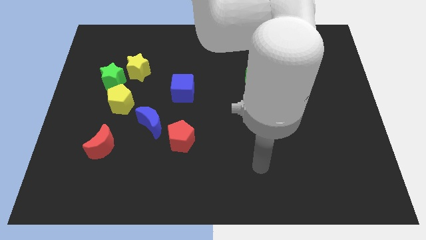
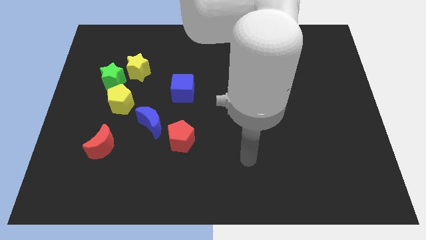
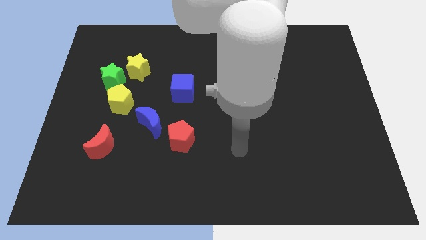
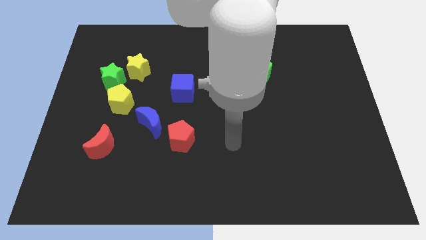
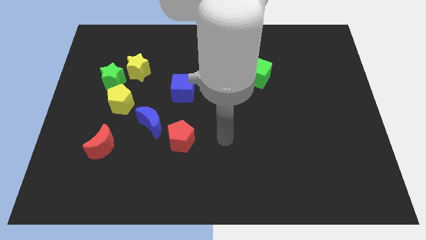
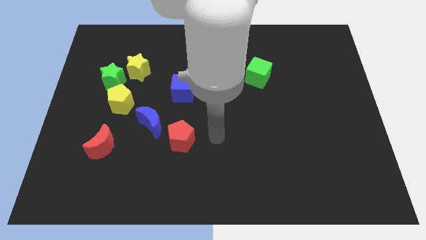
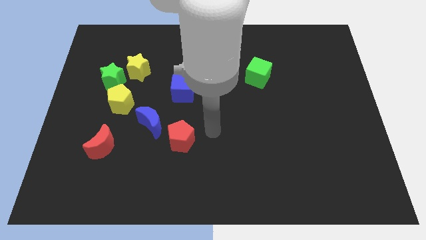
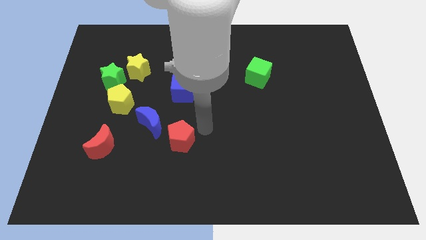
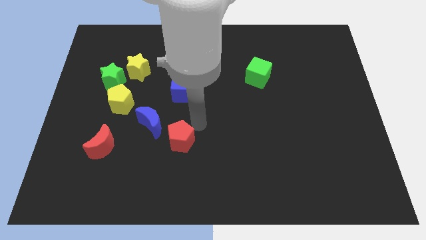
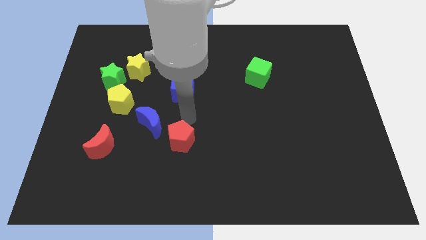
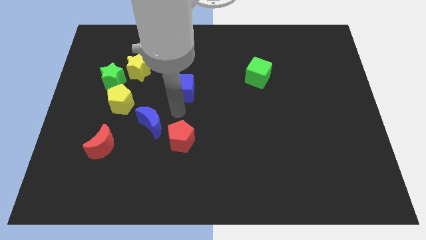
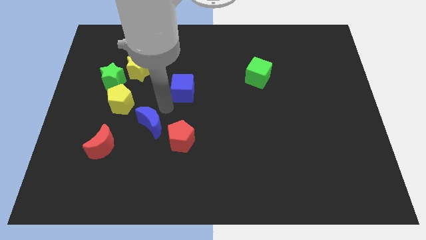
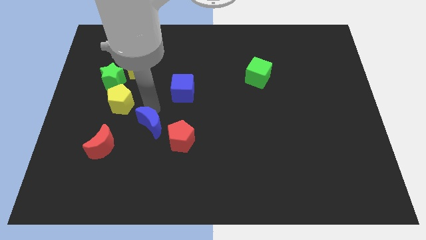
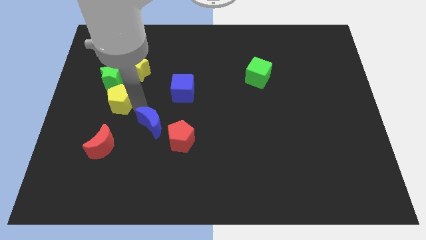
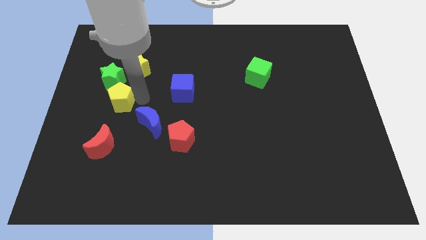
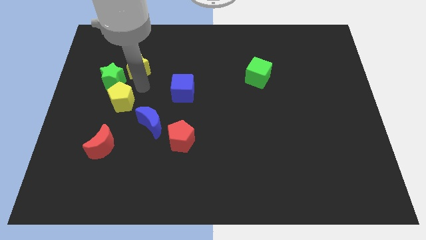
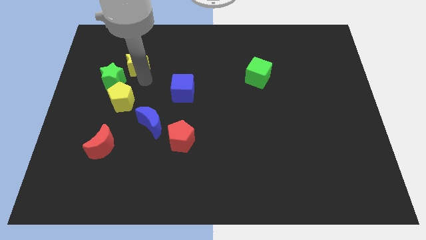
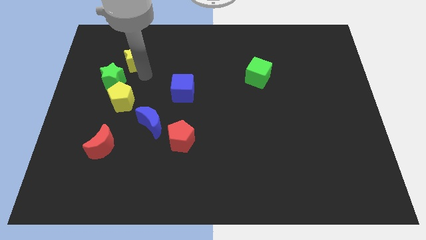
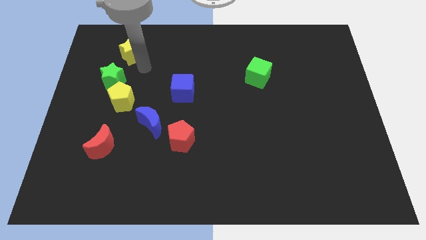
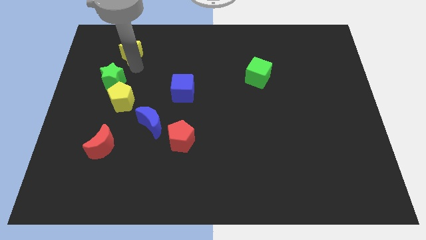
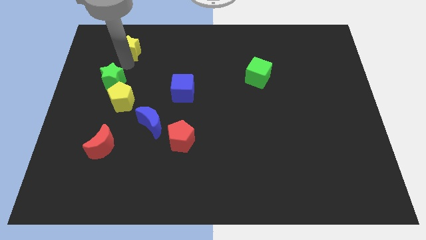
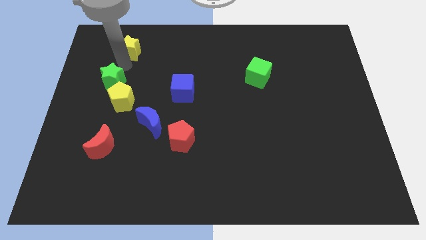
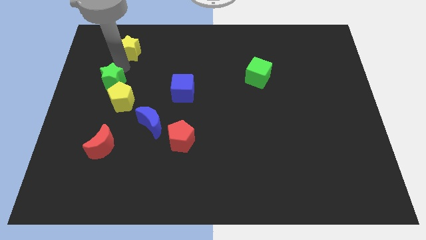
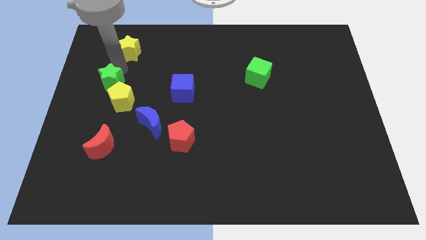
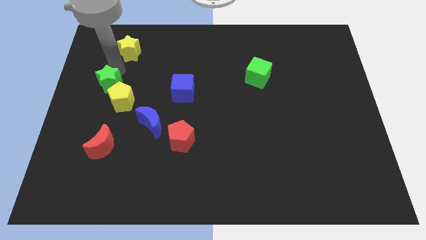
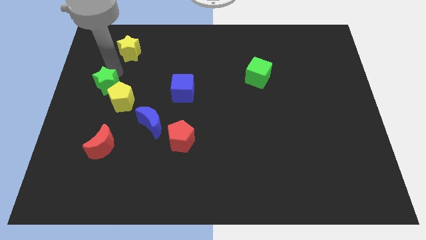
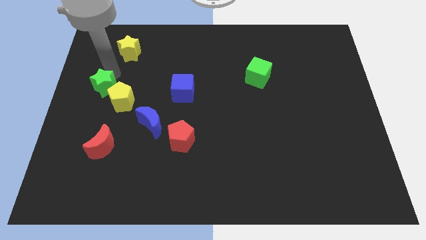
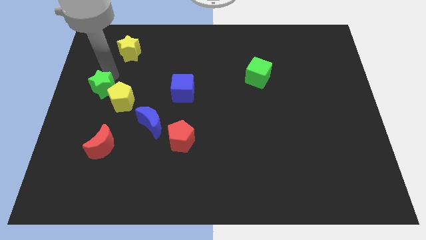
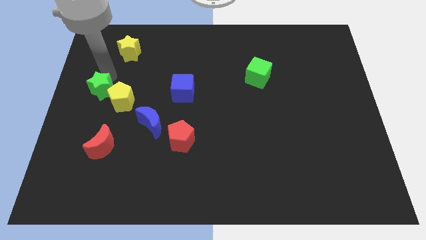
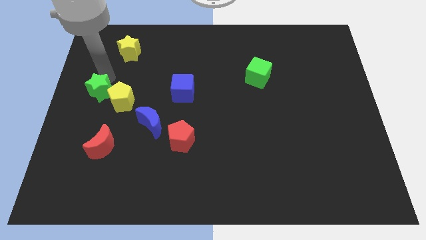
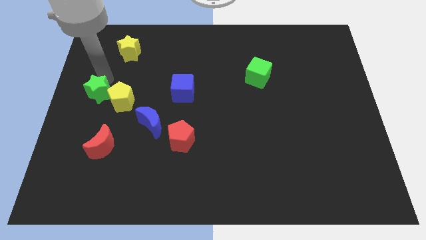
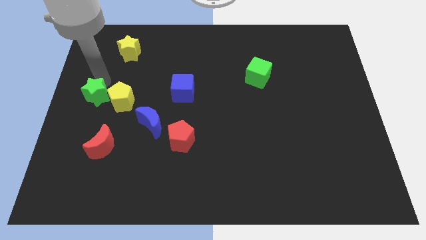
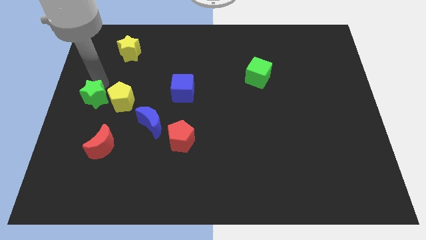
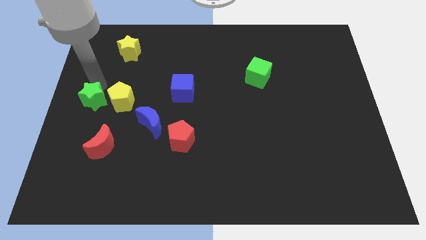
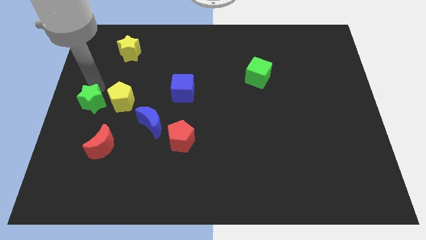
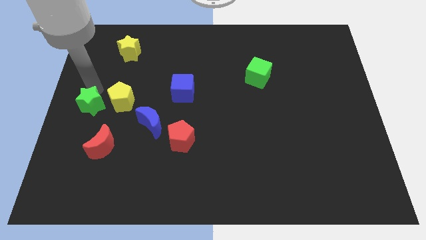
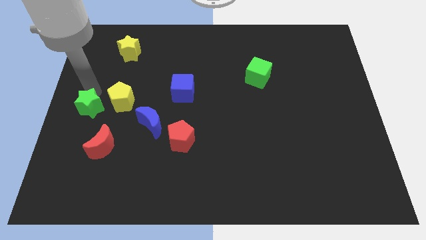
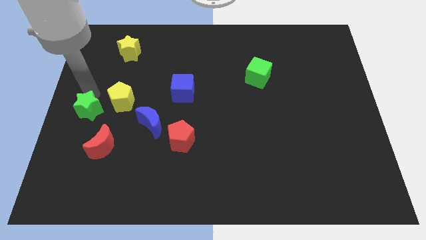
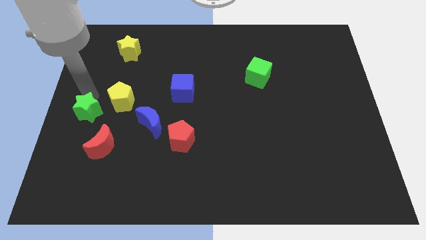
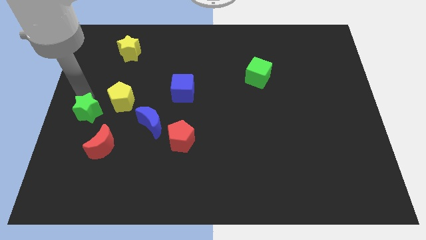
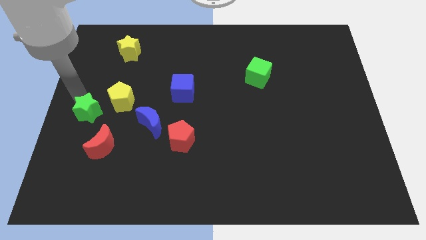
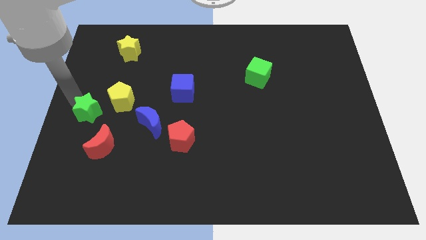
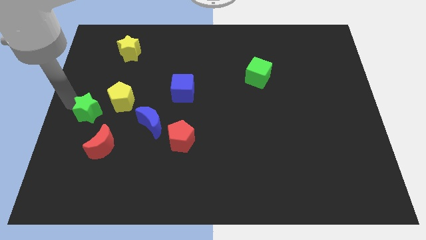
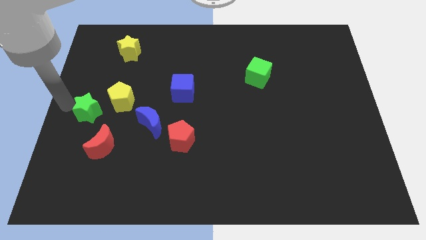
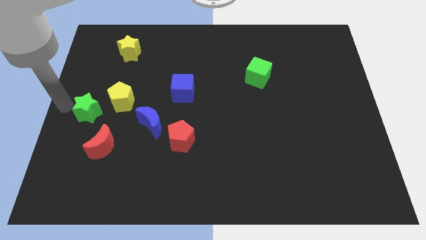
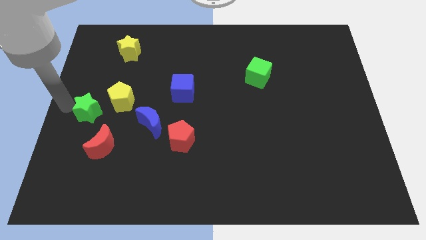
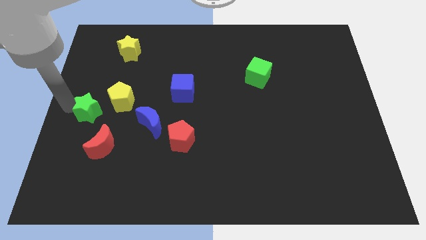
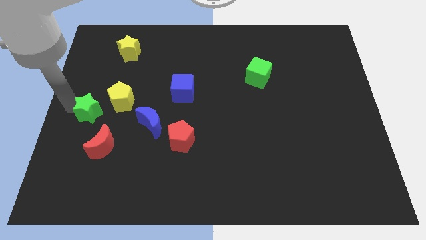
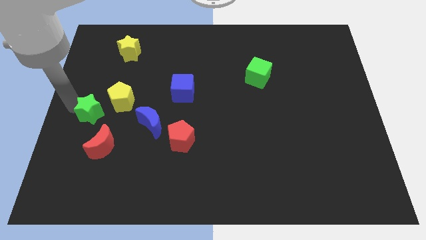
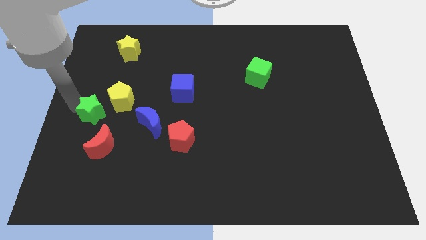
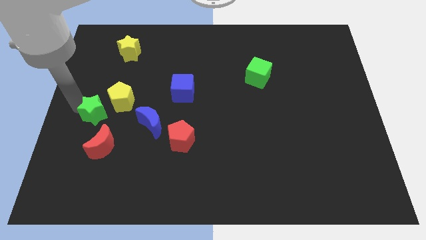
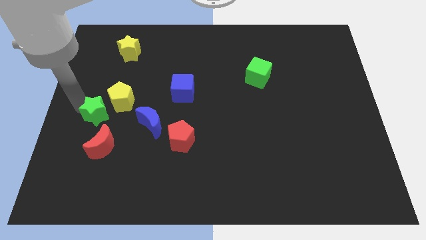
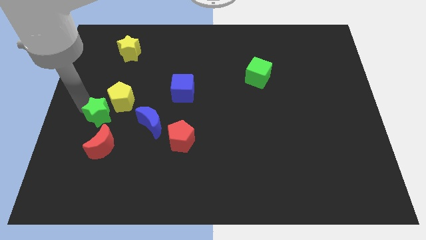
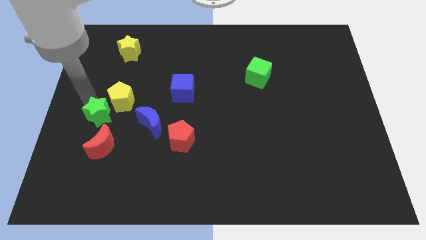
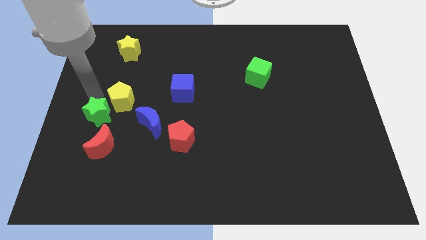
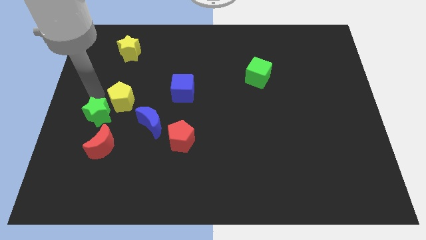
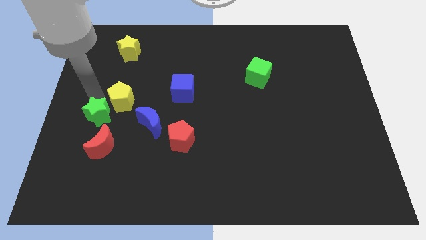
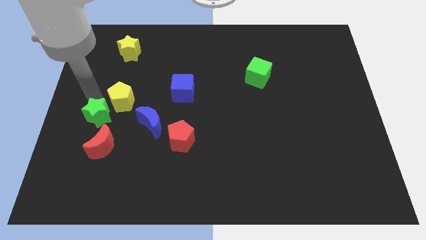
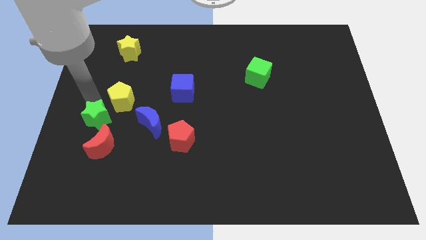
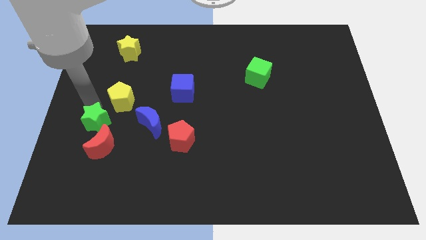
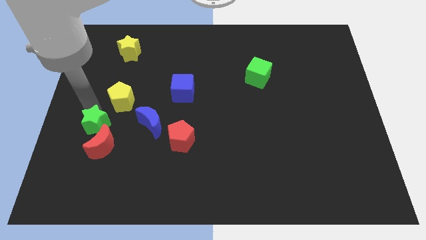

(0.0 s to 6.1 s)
put the green star close to the red moon
